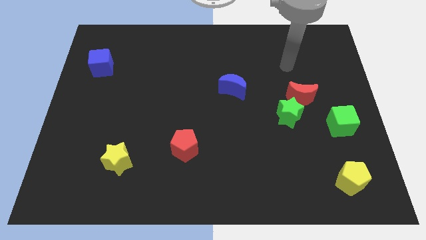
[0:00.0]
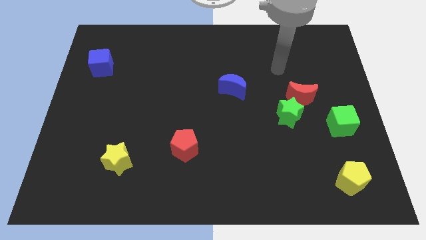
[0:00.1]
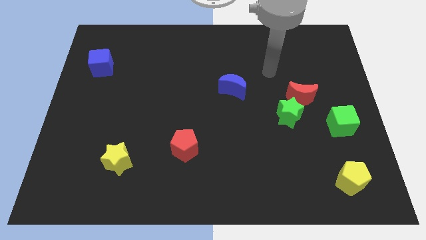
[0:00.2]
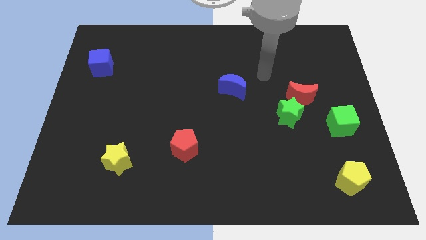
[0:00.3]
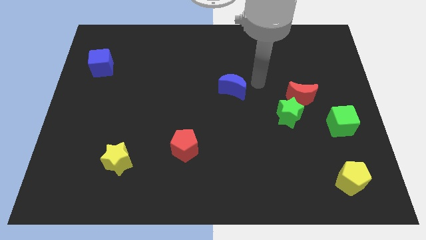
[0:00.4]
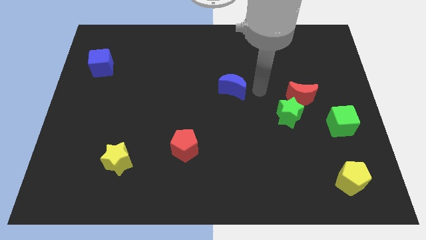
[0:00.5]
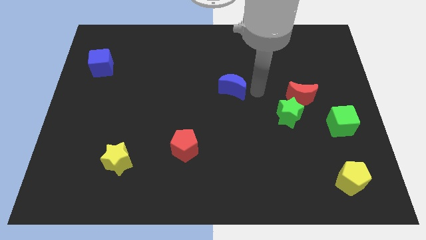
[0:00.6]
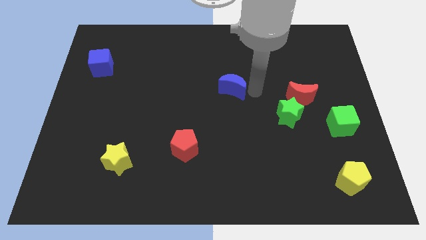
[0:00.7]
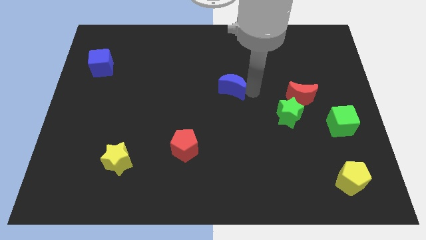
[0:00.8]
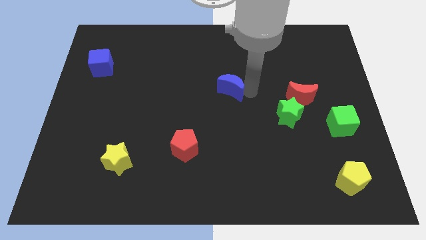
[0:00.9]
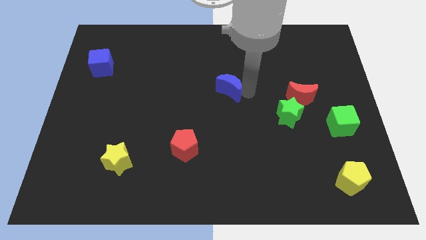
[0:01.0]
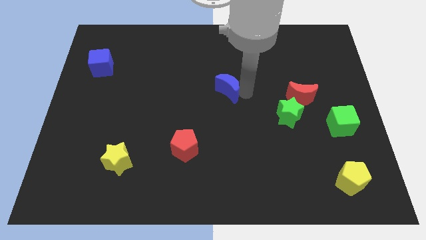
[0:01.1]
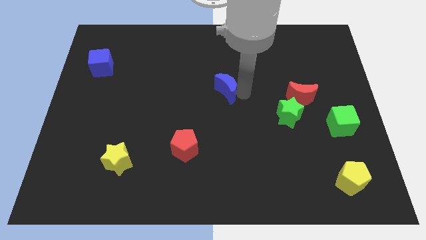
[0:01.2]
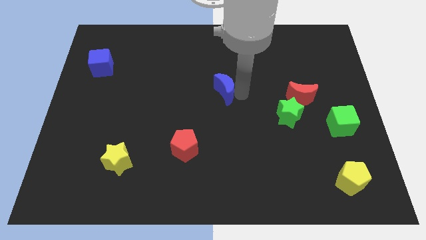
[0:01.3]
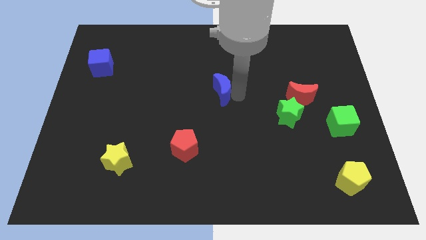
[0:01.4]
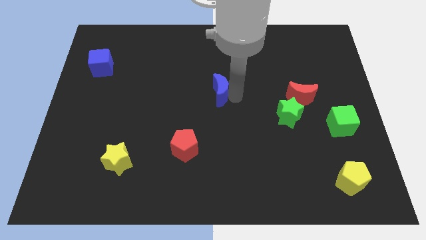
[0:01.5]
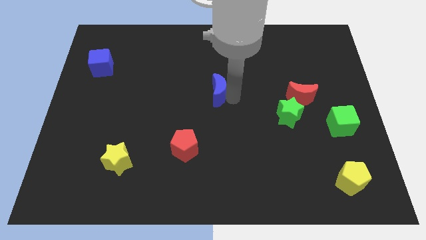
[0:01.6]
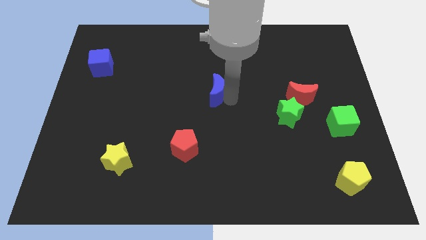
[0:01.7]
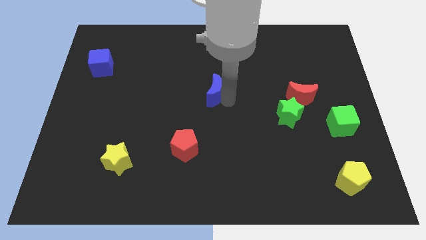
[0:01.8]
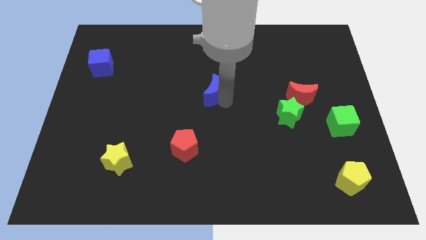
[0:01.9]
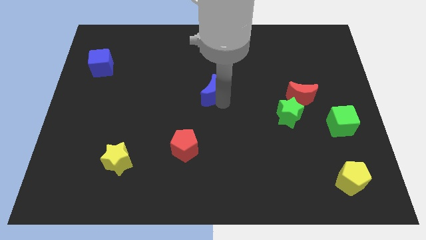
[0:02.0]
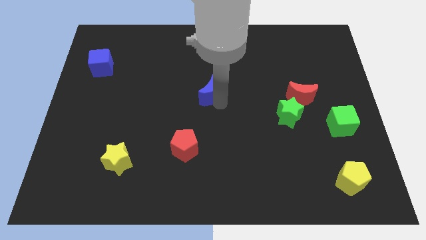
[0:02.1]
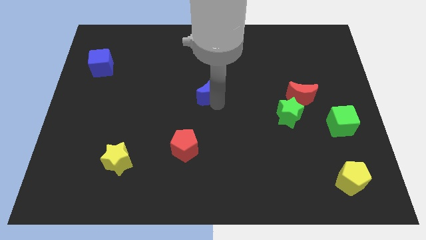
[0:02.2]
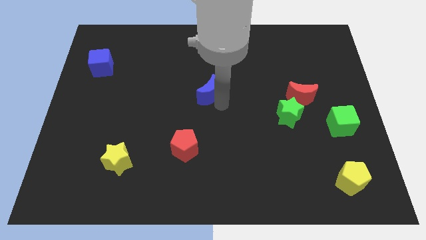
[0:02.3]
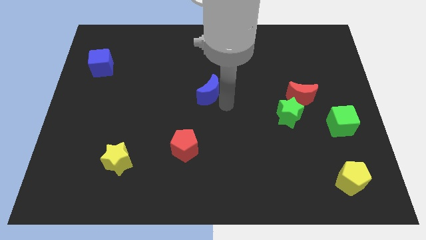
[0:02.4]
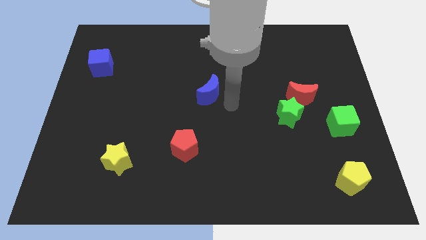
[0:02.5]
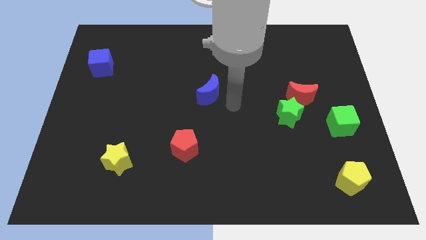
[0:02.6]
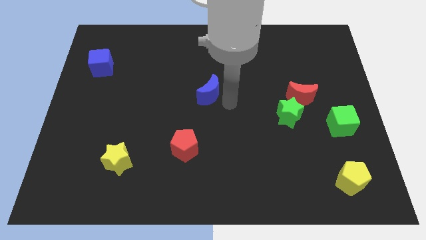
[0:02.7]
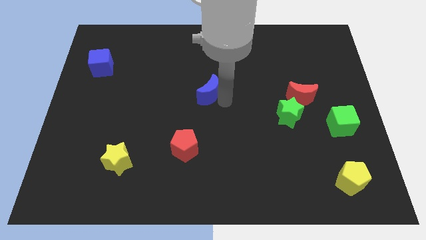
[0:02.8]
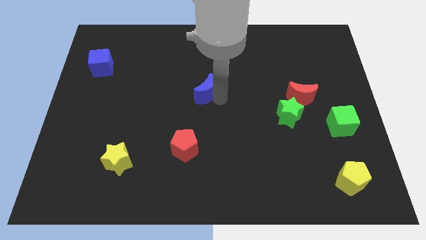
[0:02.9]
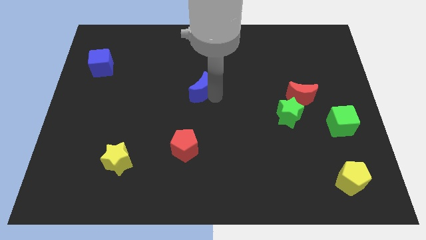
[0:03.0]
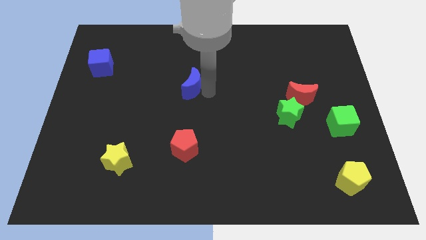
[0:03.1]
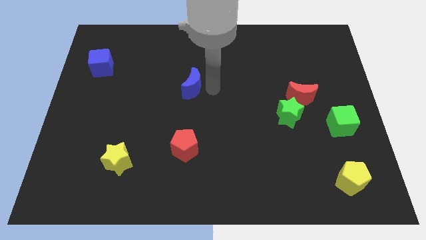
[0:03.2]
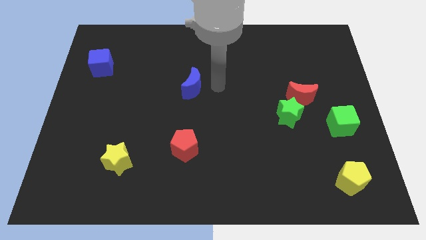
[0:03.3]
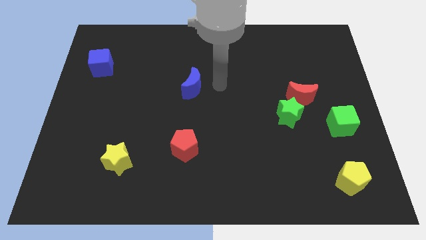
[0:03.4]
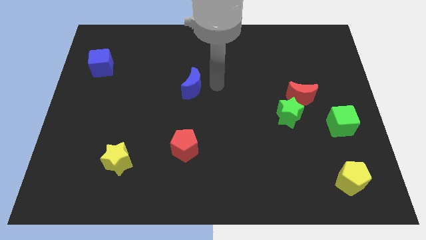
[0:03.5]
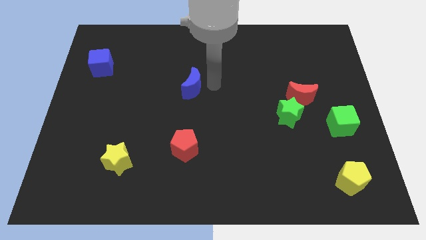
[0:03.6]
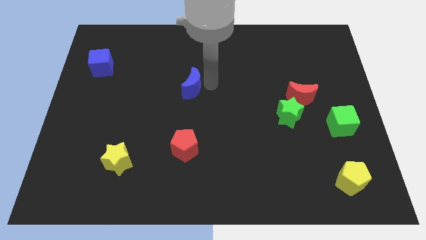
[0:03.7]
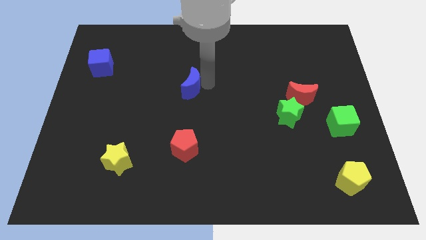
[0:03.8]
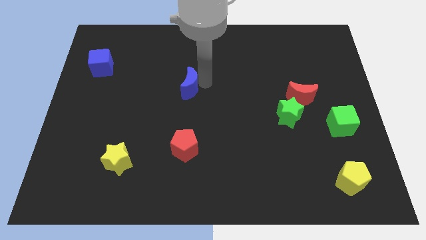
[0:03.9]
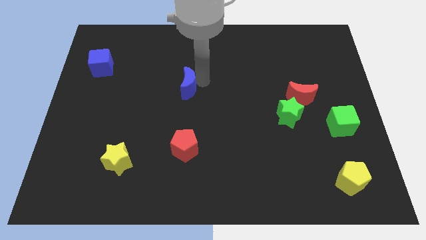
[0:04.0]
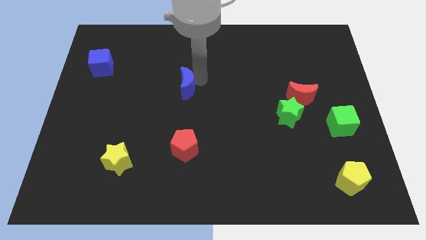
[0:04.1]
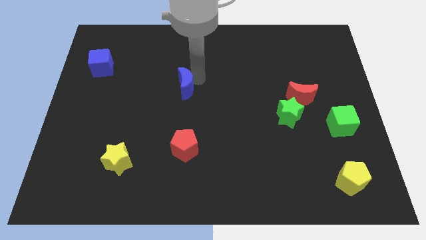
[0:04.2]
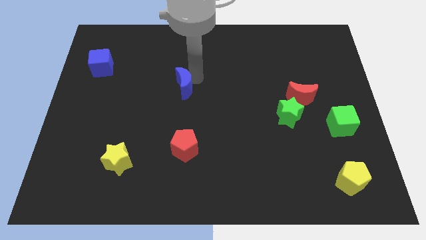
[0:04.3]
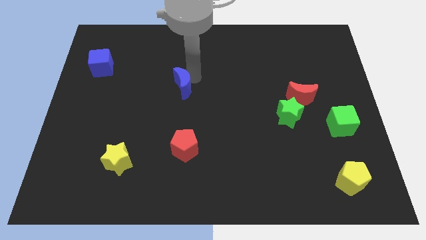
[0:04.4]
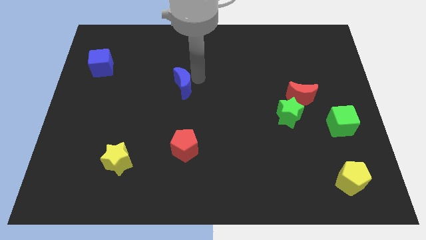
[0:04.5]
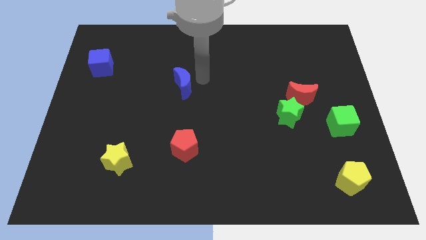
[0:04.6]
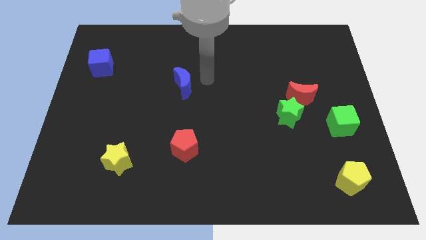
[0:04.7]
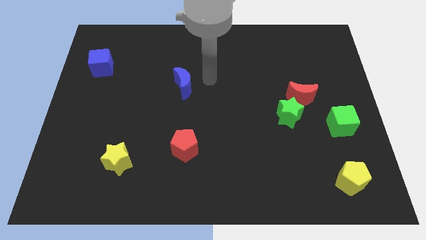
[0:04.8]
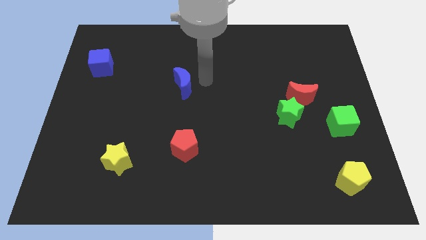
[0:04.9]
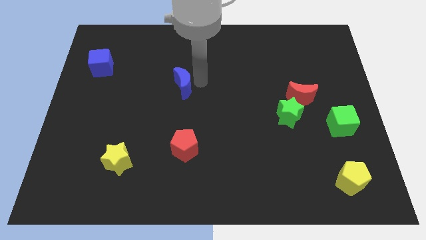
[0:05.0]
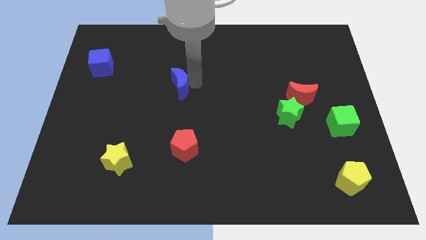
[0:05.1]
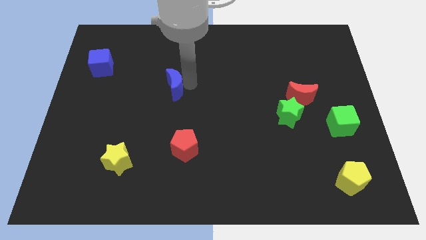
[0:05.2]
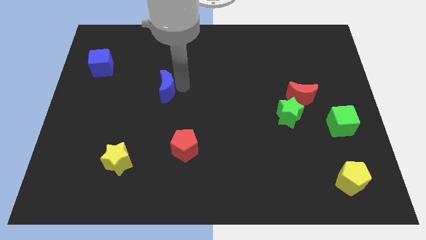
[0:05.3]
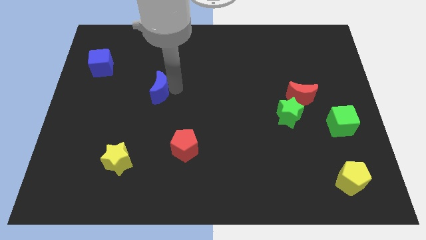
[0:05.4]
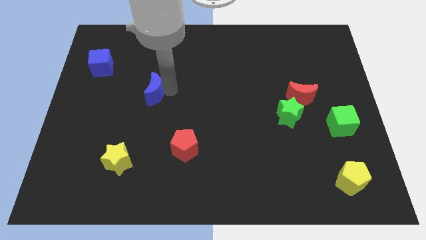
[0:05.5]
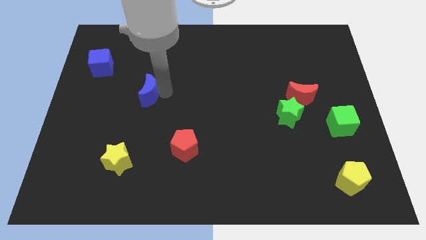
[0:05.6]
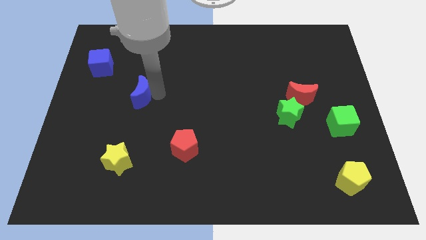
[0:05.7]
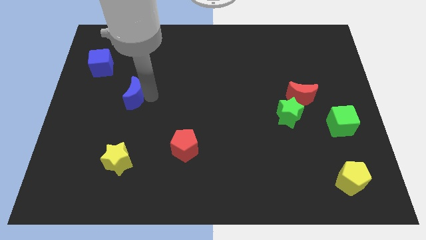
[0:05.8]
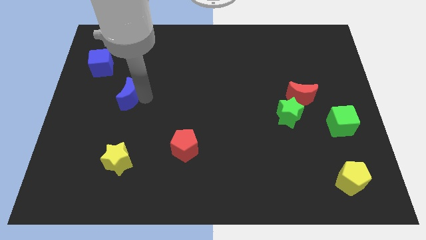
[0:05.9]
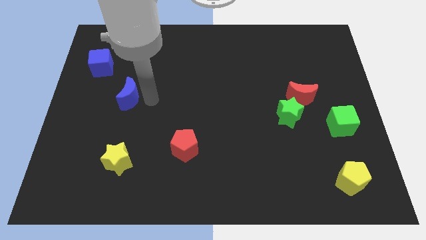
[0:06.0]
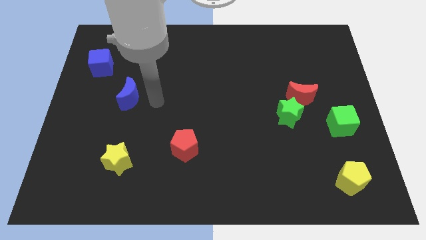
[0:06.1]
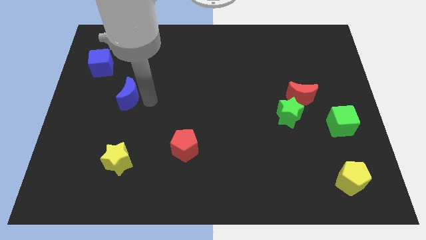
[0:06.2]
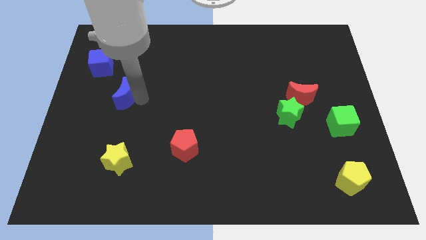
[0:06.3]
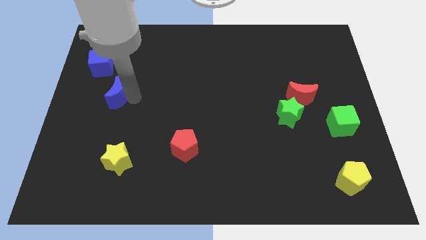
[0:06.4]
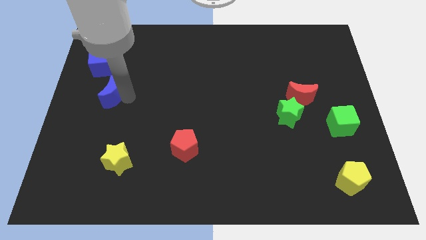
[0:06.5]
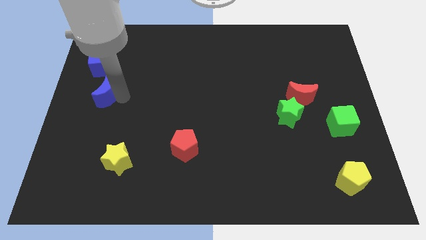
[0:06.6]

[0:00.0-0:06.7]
put the blue moon to the left side of the board
